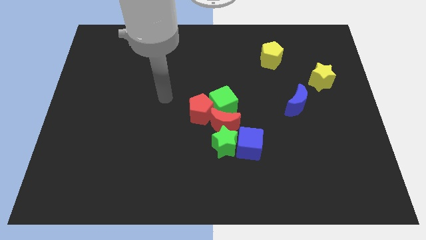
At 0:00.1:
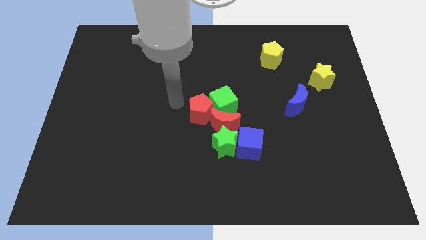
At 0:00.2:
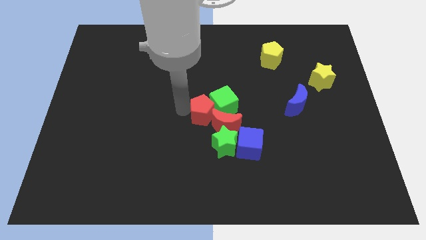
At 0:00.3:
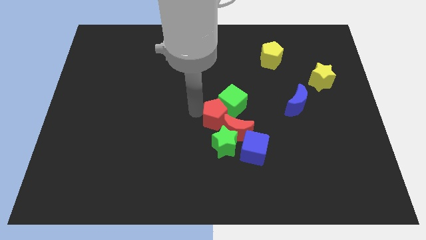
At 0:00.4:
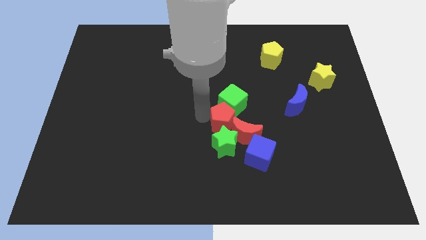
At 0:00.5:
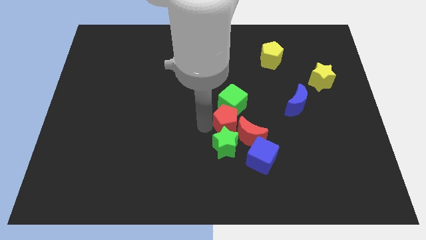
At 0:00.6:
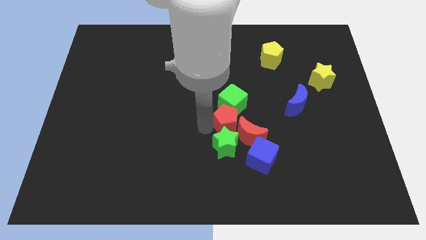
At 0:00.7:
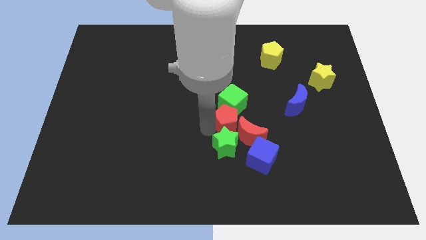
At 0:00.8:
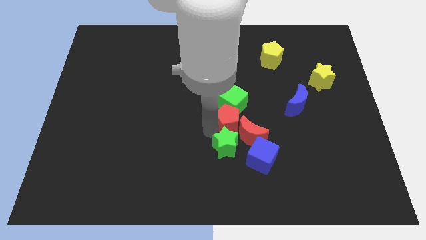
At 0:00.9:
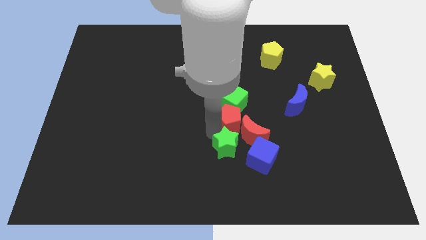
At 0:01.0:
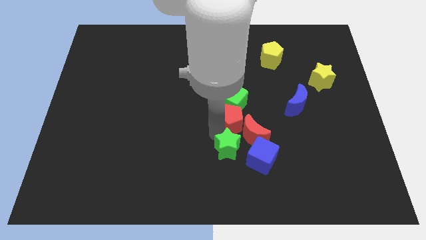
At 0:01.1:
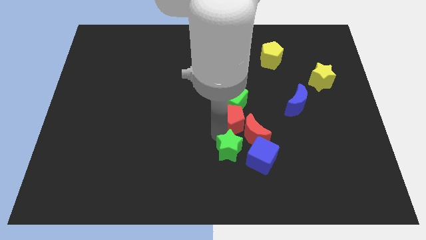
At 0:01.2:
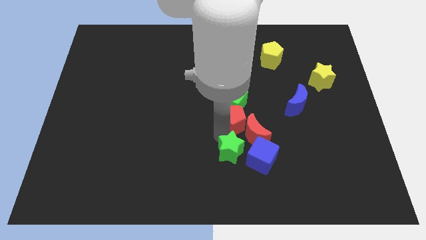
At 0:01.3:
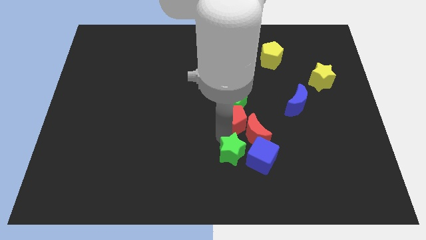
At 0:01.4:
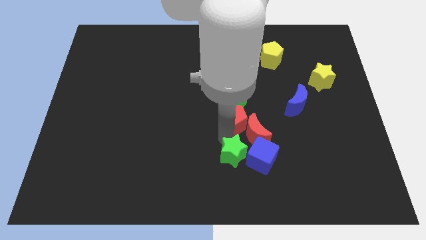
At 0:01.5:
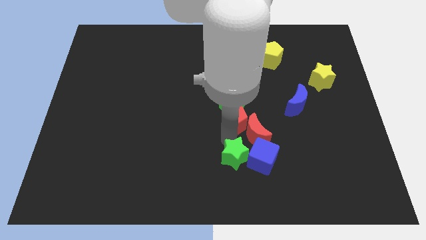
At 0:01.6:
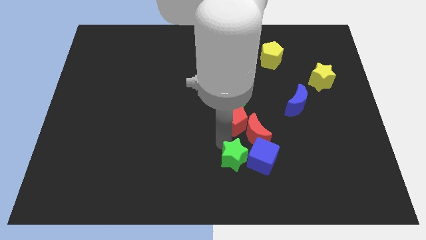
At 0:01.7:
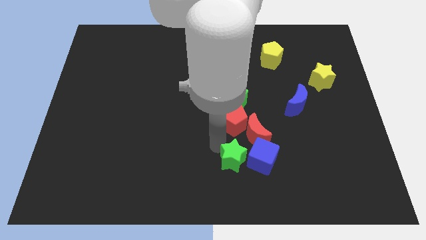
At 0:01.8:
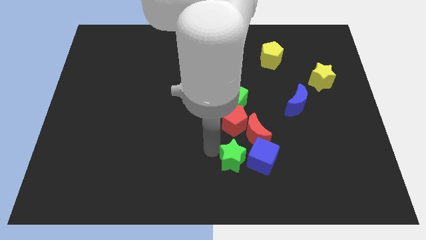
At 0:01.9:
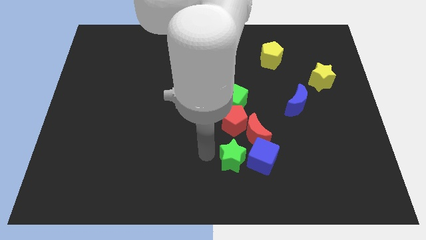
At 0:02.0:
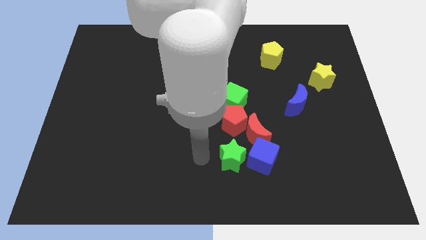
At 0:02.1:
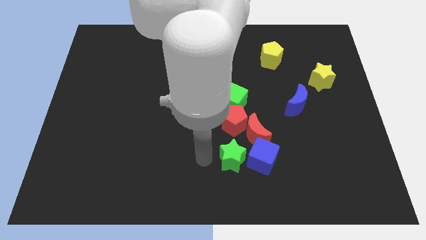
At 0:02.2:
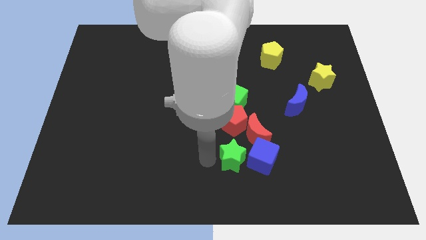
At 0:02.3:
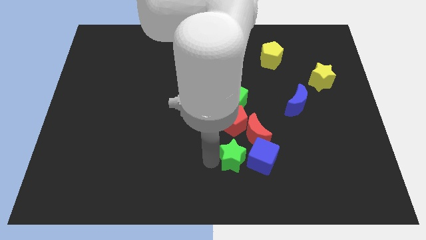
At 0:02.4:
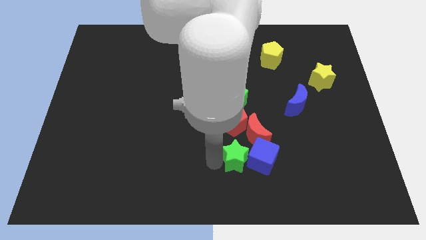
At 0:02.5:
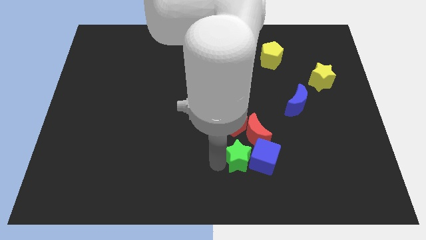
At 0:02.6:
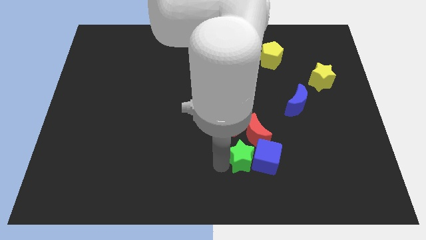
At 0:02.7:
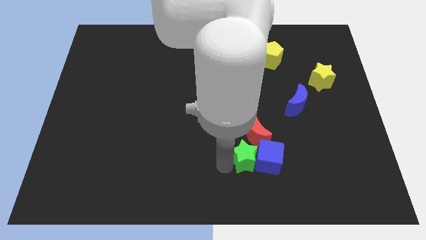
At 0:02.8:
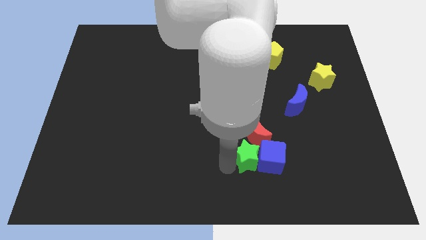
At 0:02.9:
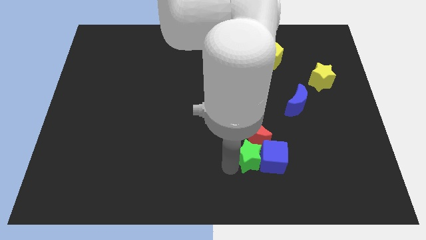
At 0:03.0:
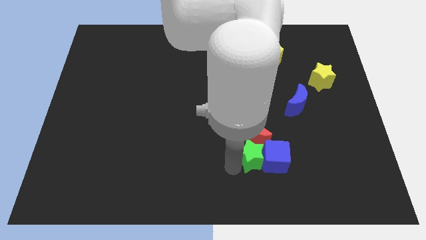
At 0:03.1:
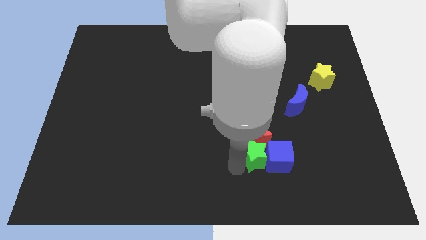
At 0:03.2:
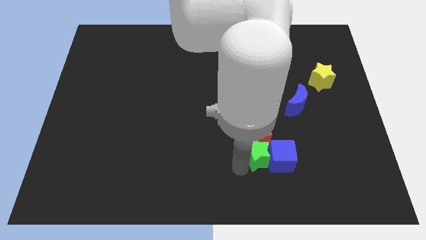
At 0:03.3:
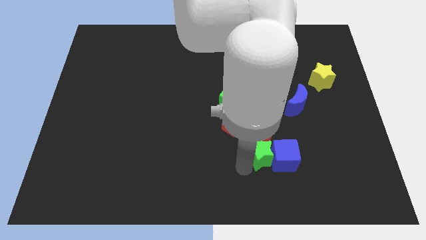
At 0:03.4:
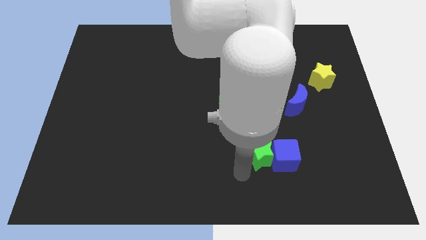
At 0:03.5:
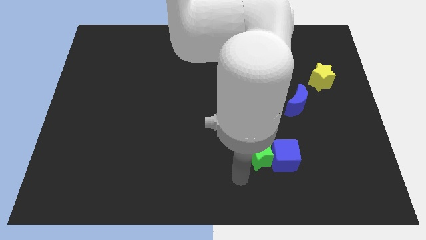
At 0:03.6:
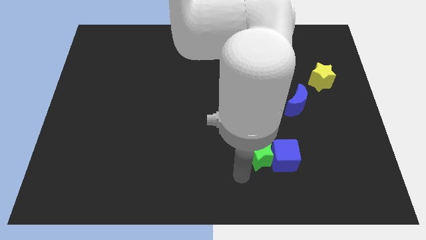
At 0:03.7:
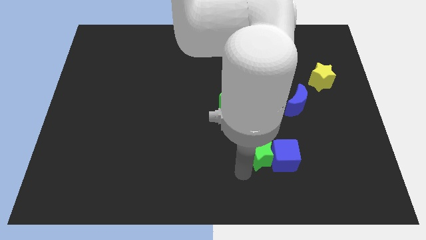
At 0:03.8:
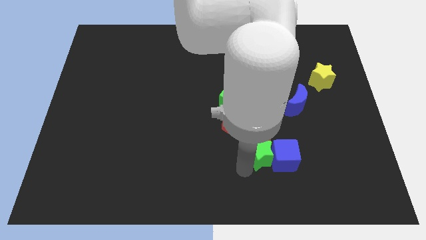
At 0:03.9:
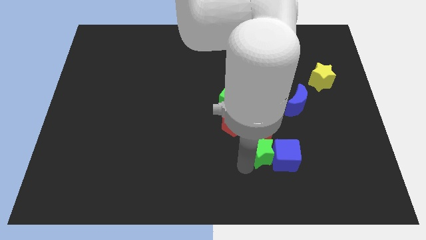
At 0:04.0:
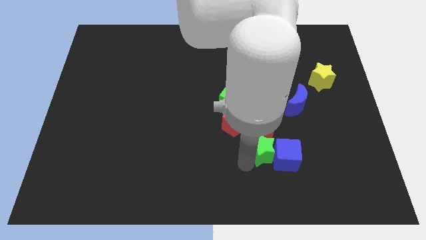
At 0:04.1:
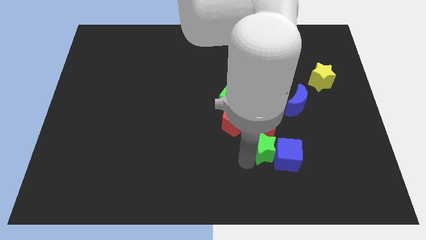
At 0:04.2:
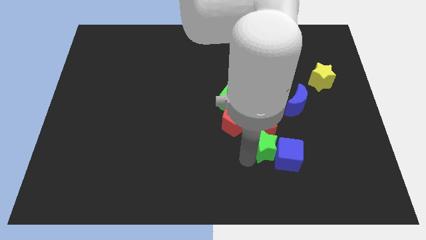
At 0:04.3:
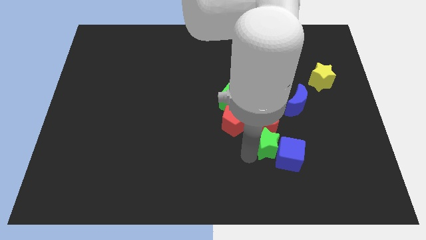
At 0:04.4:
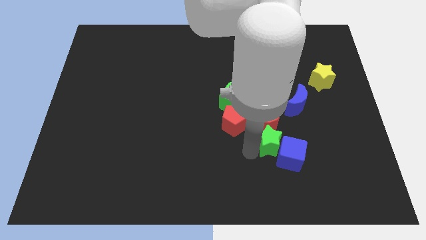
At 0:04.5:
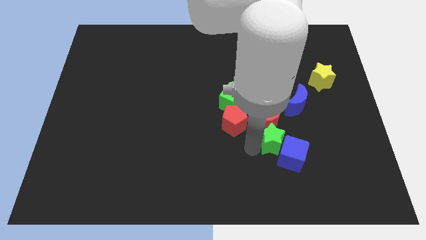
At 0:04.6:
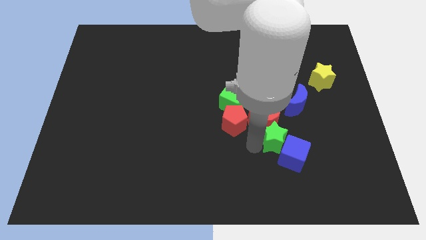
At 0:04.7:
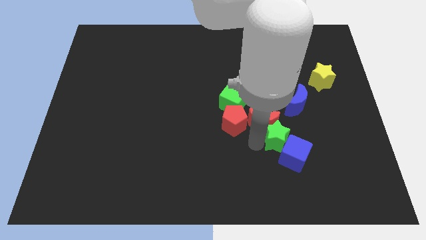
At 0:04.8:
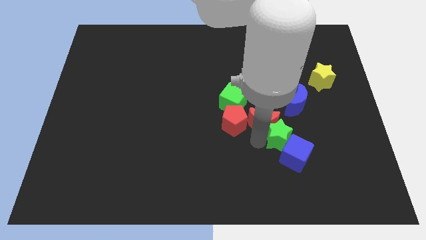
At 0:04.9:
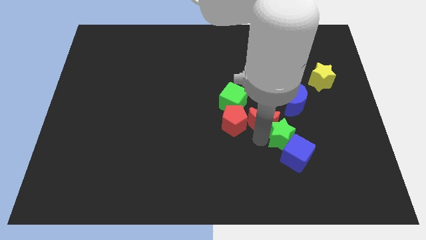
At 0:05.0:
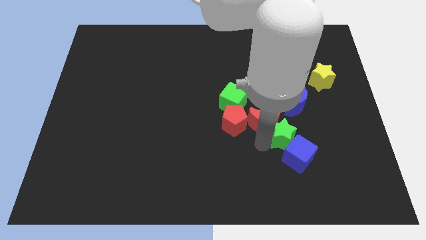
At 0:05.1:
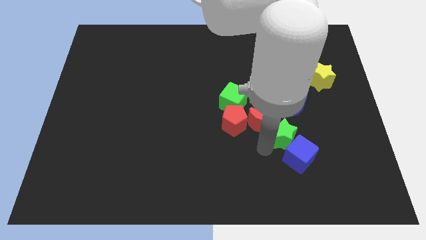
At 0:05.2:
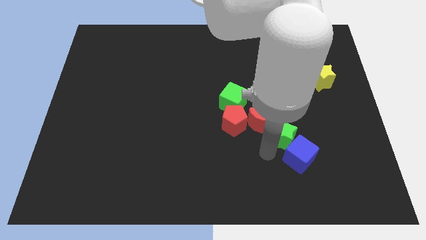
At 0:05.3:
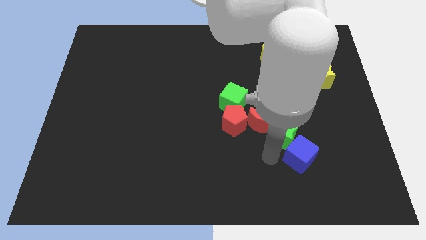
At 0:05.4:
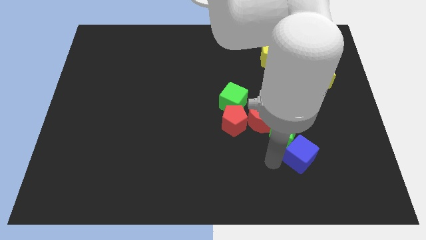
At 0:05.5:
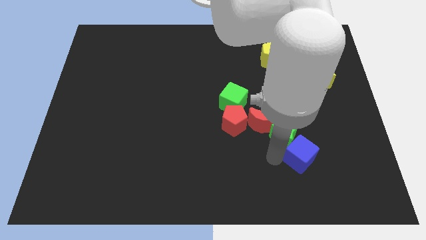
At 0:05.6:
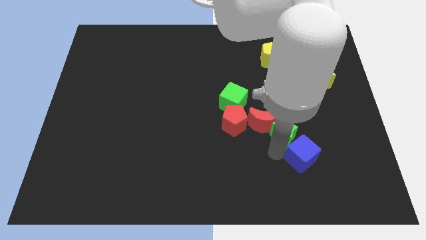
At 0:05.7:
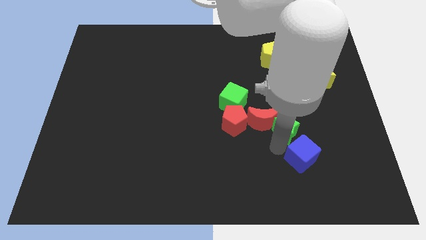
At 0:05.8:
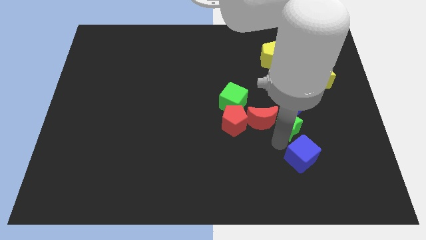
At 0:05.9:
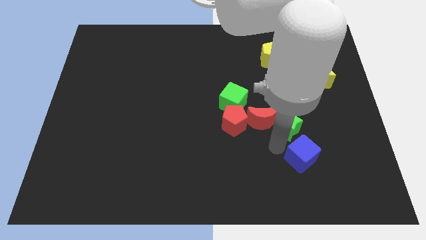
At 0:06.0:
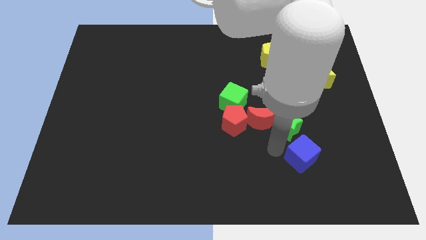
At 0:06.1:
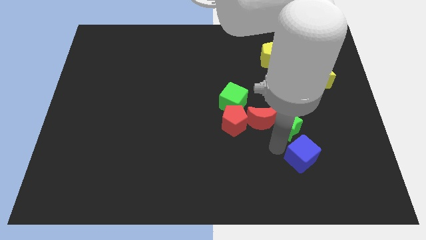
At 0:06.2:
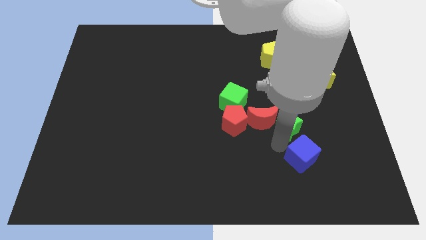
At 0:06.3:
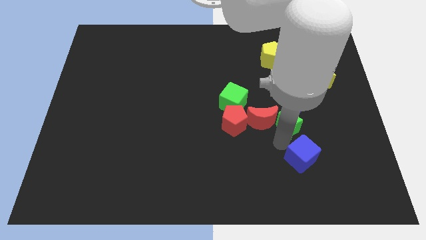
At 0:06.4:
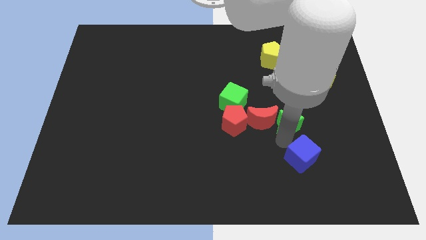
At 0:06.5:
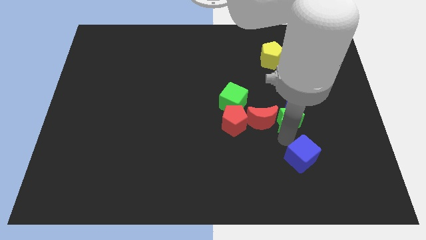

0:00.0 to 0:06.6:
move the green star towards the blue moon

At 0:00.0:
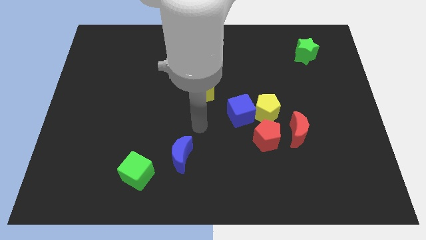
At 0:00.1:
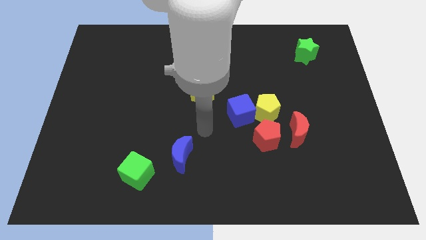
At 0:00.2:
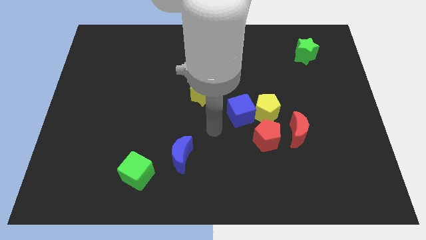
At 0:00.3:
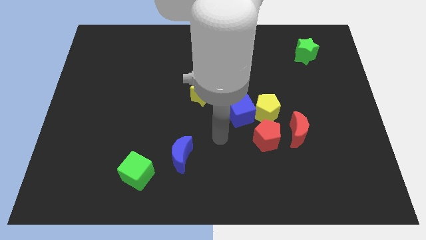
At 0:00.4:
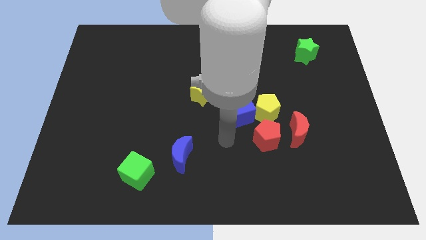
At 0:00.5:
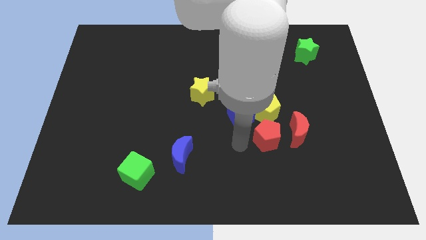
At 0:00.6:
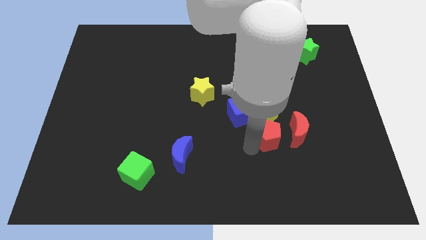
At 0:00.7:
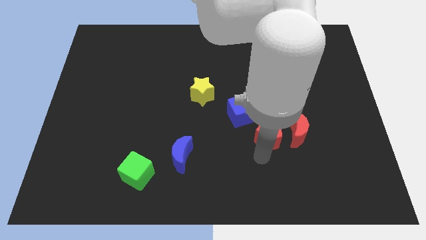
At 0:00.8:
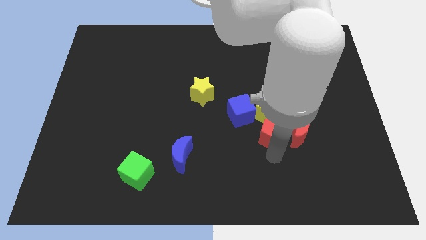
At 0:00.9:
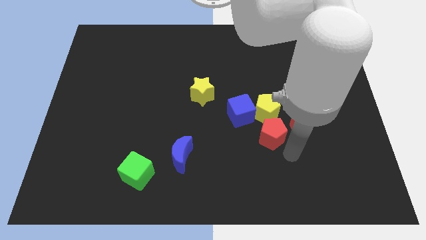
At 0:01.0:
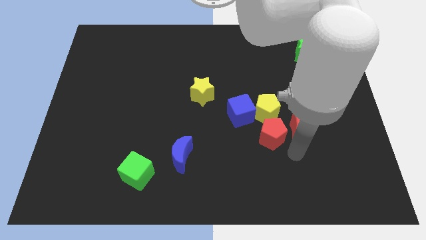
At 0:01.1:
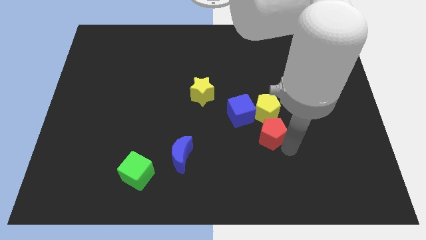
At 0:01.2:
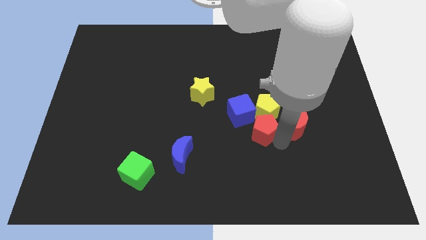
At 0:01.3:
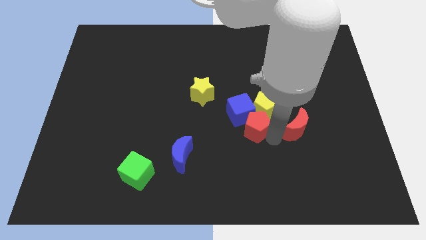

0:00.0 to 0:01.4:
slide the red pentagon close to the blue cube

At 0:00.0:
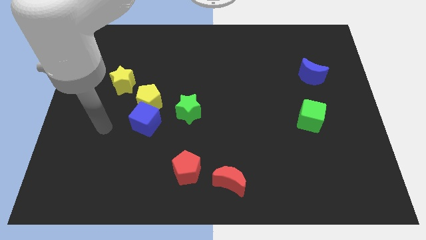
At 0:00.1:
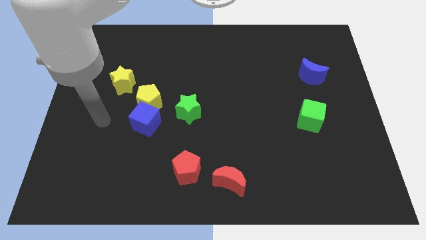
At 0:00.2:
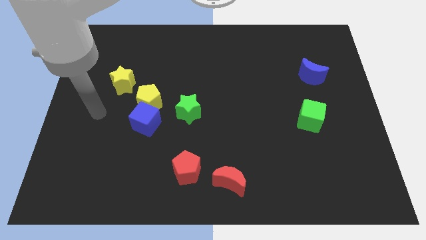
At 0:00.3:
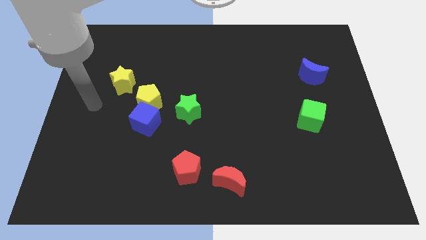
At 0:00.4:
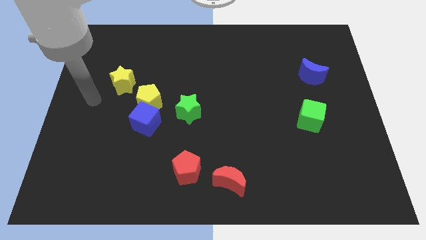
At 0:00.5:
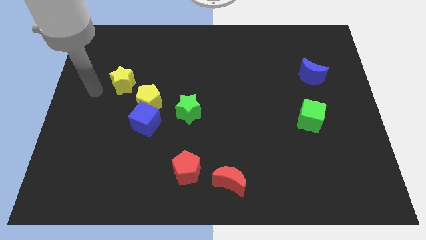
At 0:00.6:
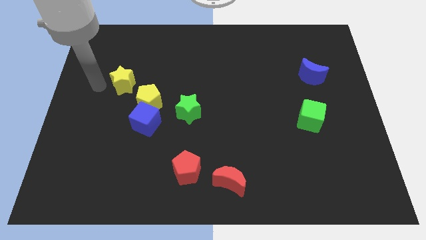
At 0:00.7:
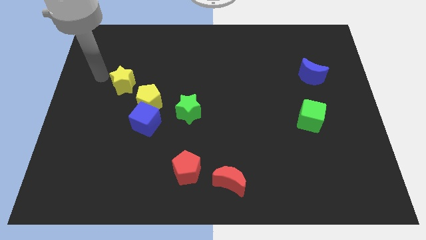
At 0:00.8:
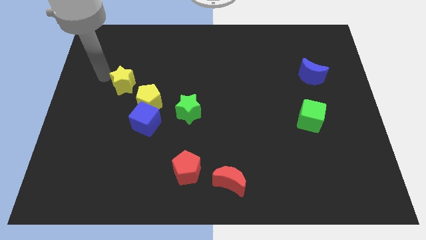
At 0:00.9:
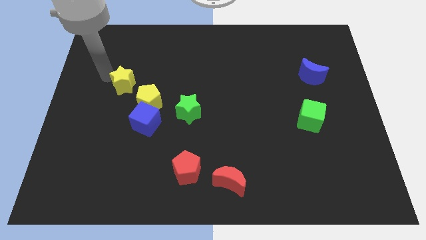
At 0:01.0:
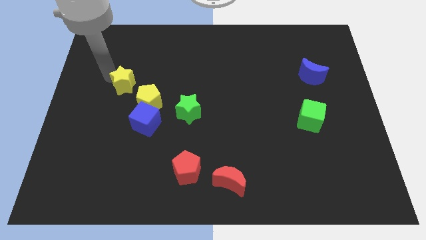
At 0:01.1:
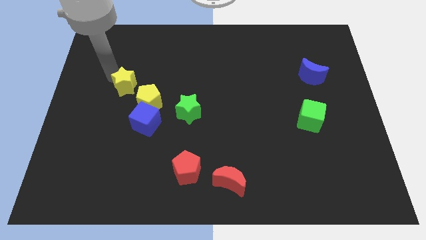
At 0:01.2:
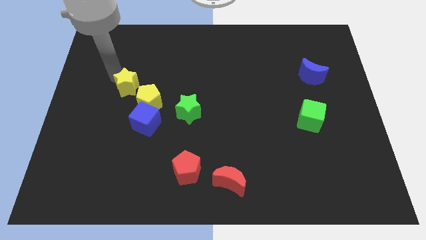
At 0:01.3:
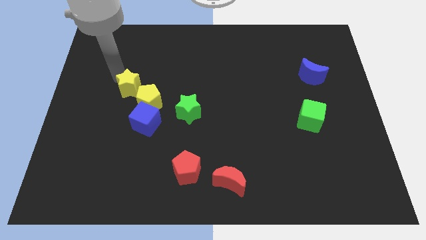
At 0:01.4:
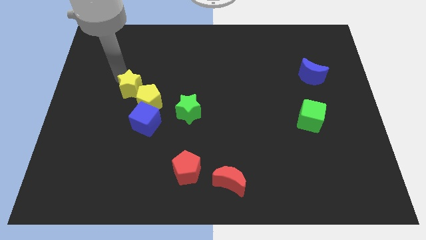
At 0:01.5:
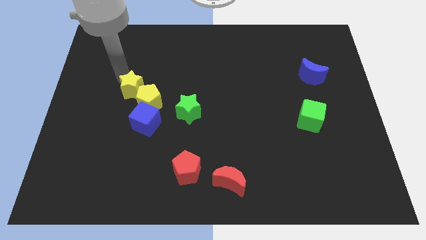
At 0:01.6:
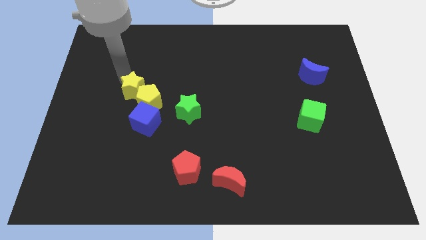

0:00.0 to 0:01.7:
push the yellow star close to the yellow pentagon
